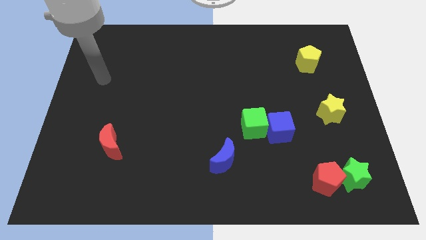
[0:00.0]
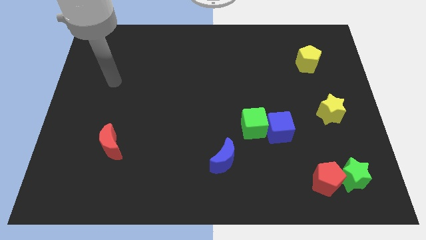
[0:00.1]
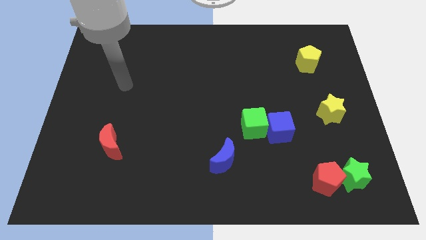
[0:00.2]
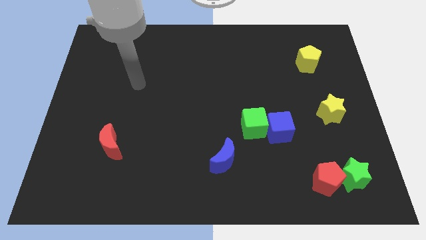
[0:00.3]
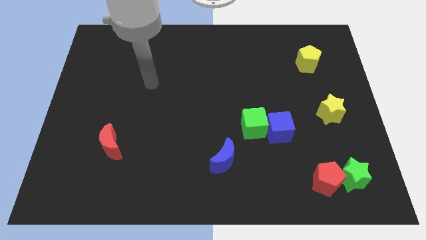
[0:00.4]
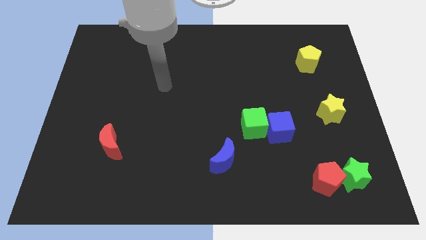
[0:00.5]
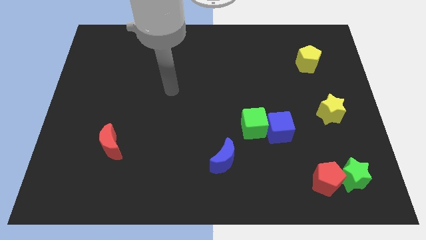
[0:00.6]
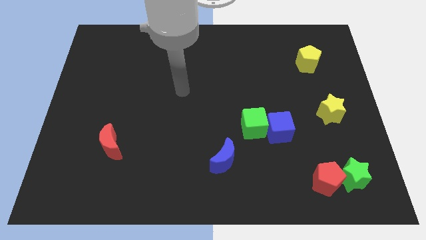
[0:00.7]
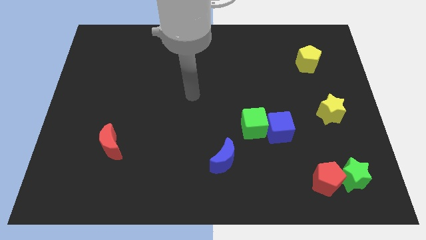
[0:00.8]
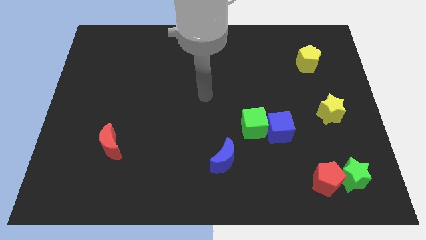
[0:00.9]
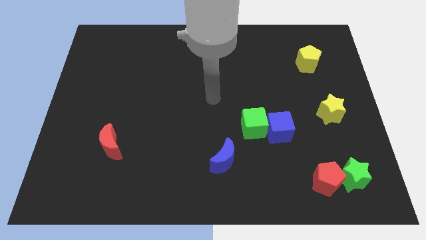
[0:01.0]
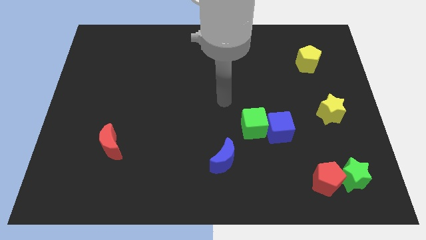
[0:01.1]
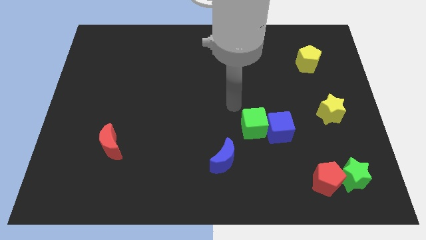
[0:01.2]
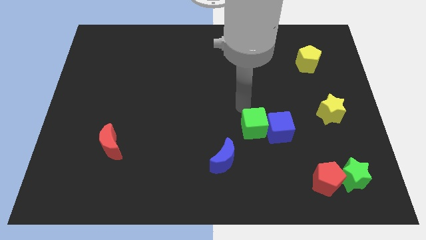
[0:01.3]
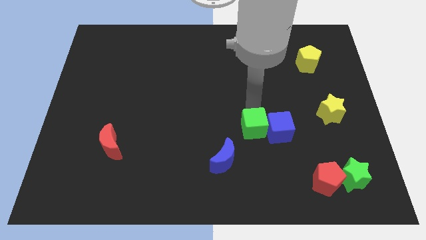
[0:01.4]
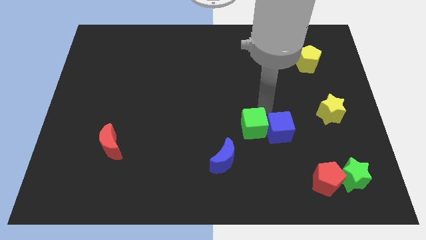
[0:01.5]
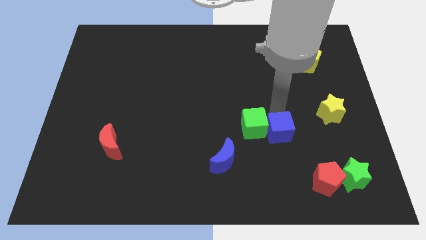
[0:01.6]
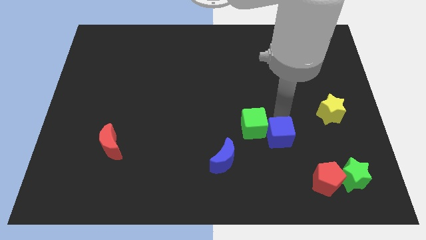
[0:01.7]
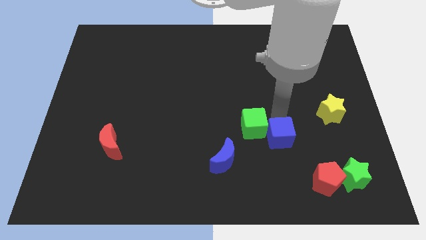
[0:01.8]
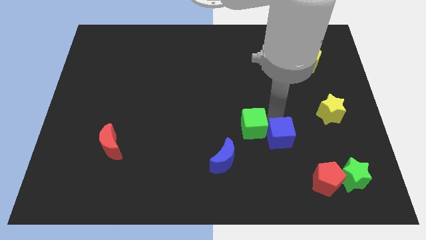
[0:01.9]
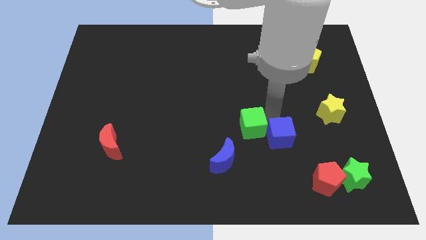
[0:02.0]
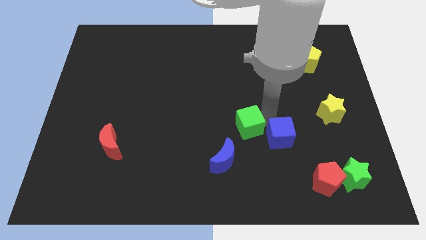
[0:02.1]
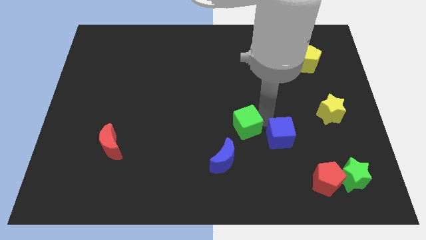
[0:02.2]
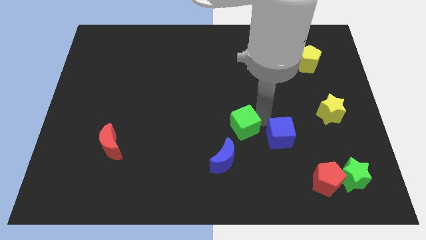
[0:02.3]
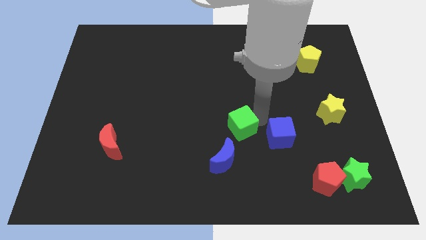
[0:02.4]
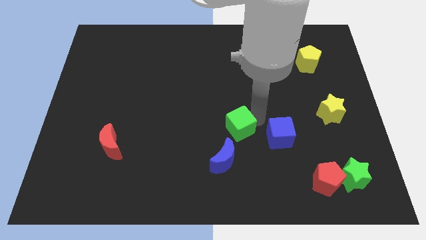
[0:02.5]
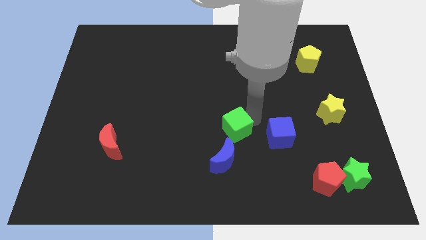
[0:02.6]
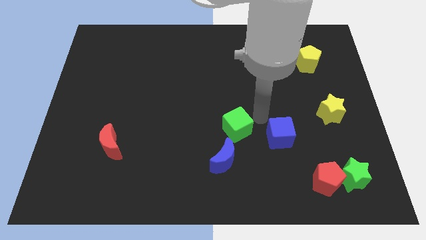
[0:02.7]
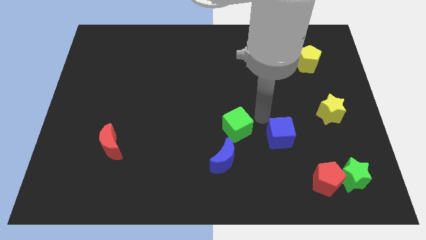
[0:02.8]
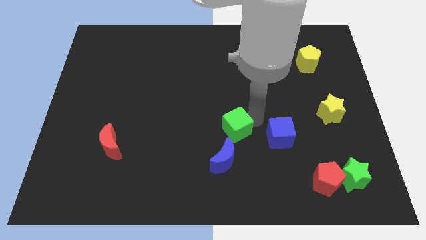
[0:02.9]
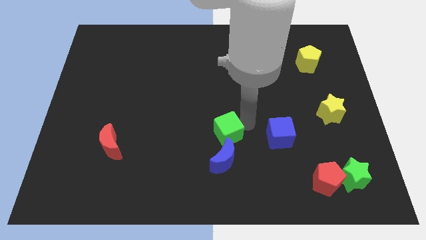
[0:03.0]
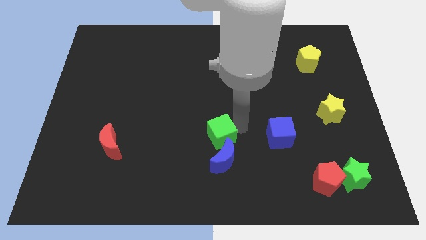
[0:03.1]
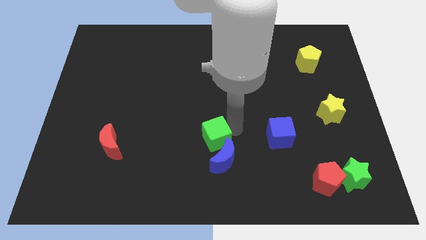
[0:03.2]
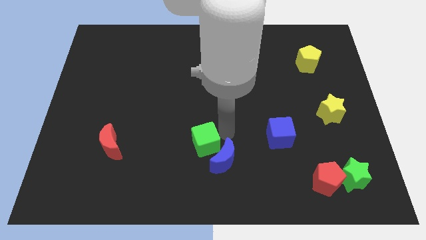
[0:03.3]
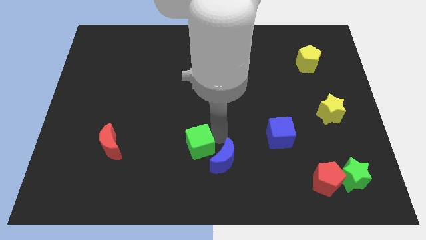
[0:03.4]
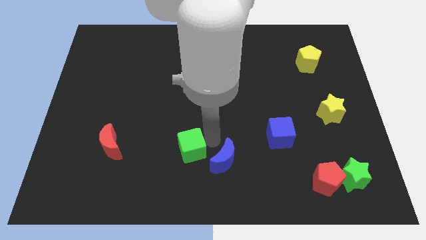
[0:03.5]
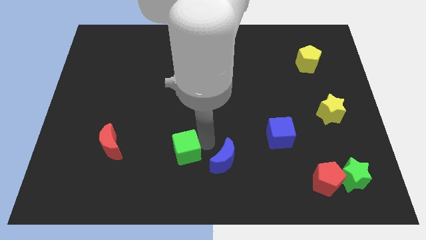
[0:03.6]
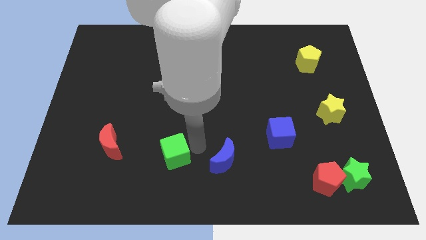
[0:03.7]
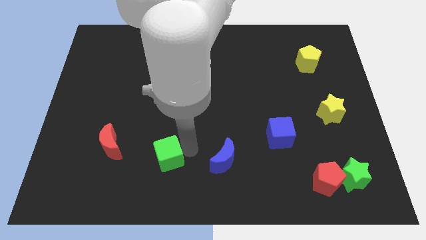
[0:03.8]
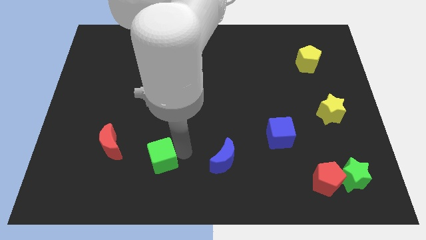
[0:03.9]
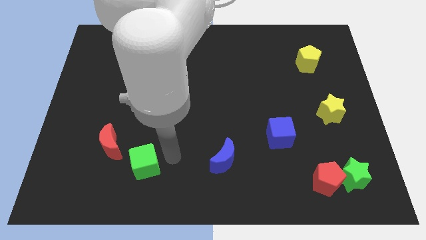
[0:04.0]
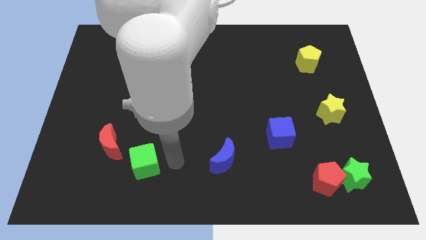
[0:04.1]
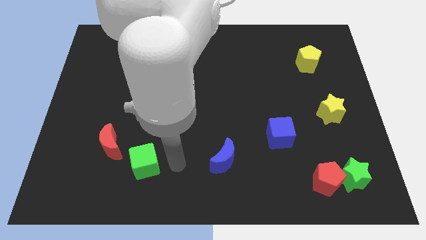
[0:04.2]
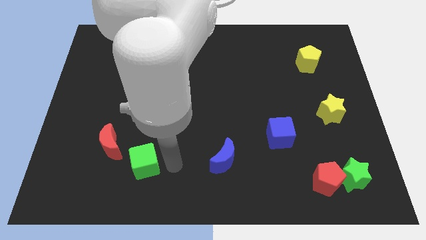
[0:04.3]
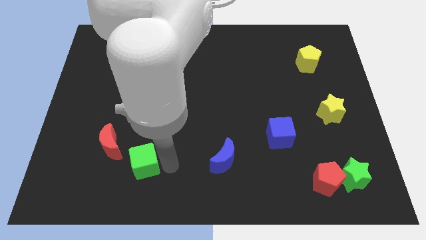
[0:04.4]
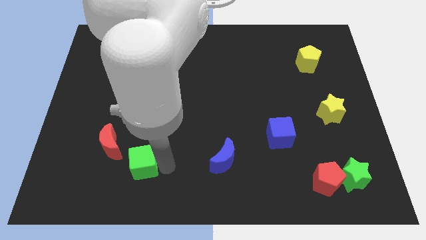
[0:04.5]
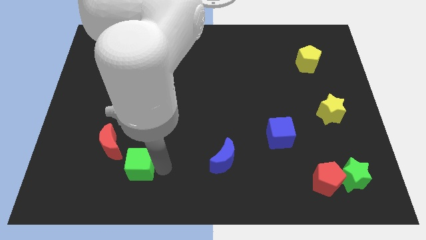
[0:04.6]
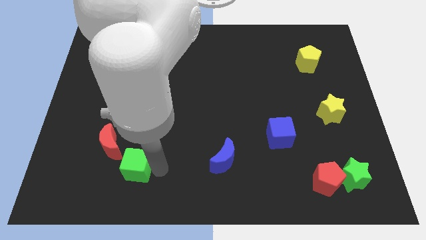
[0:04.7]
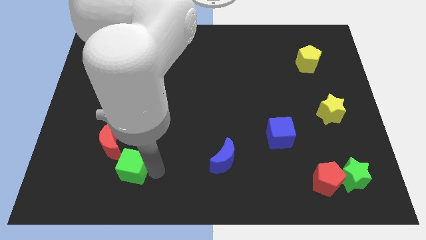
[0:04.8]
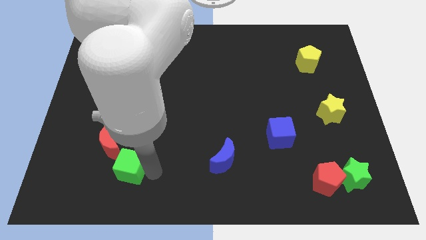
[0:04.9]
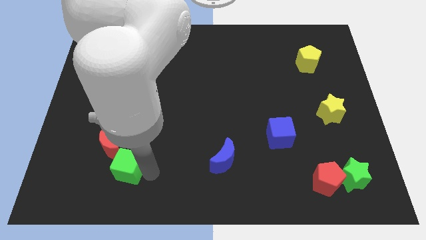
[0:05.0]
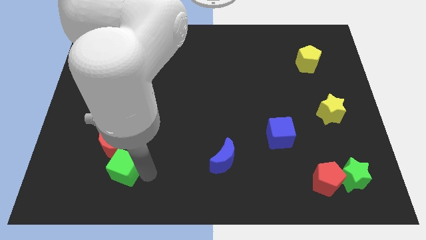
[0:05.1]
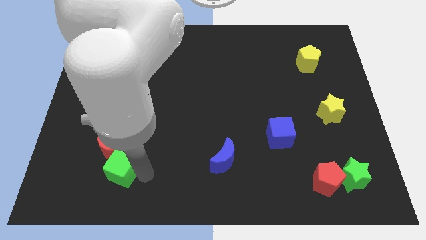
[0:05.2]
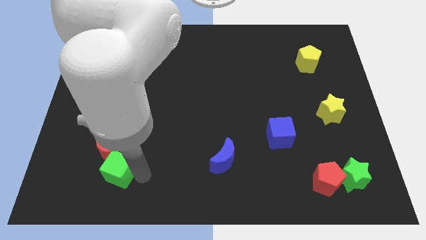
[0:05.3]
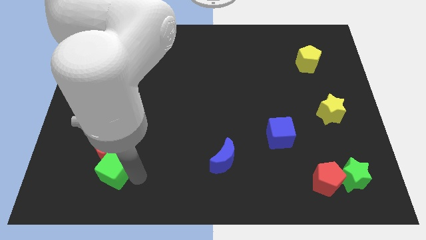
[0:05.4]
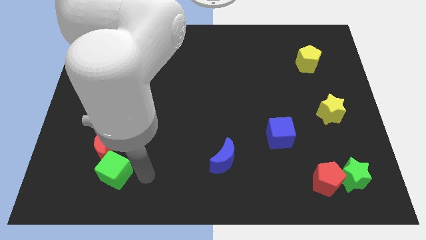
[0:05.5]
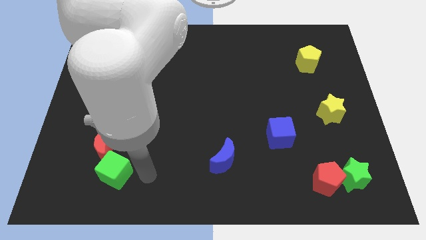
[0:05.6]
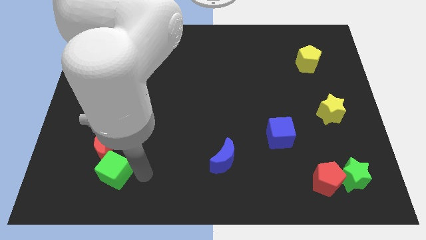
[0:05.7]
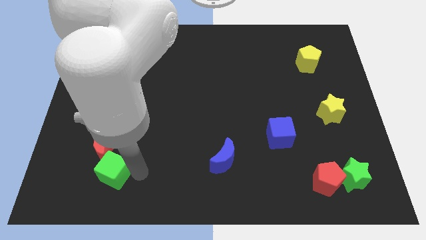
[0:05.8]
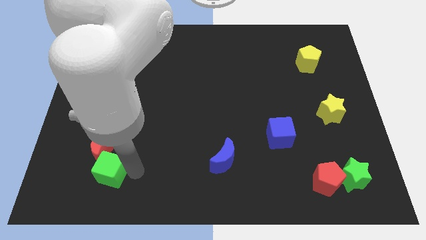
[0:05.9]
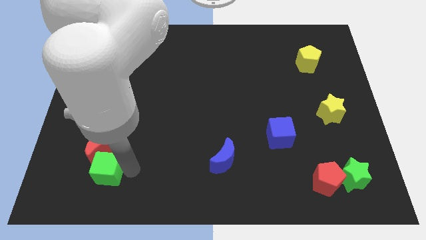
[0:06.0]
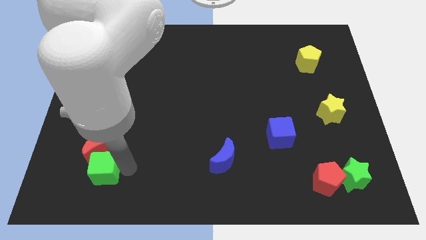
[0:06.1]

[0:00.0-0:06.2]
push the green cube to the bottom left side of the red moon
